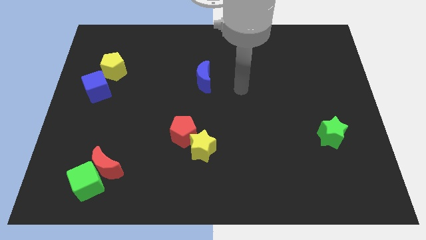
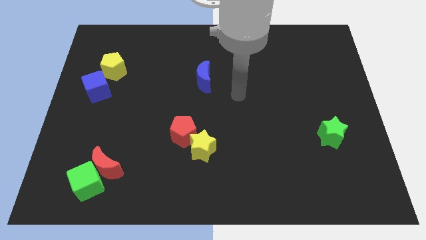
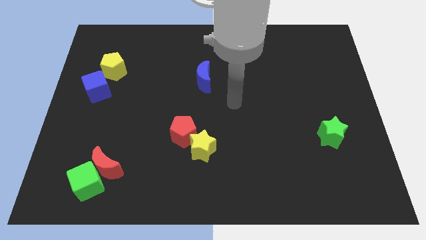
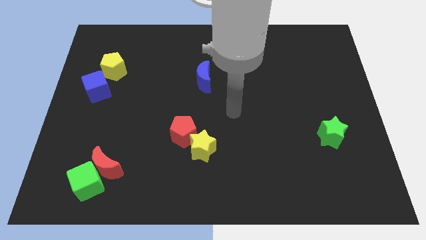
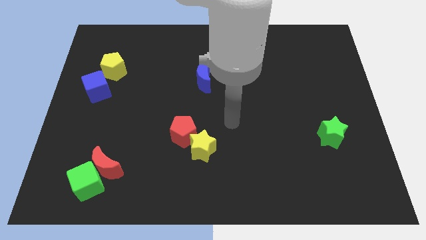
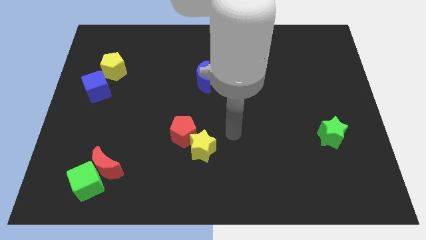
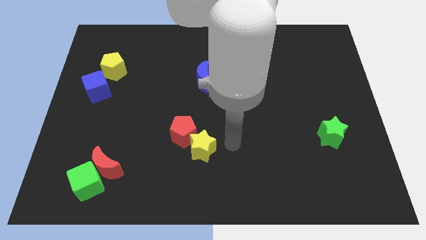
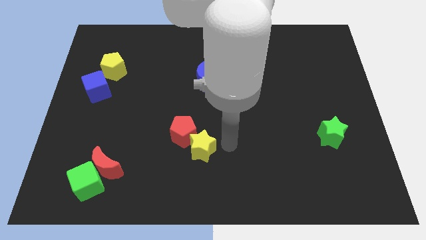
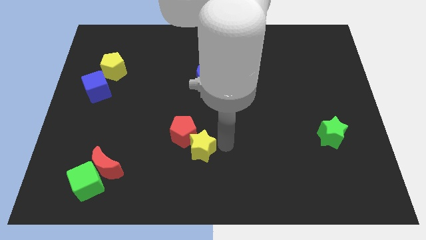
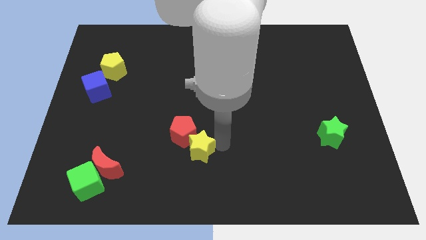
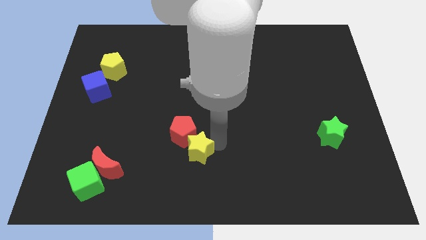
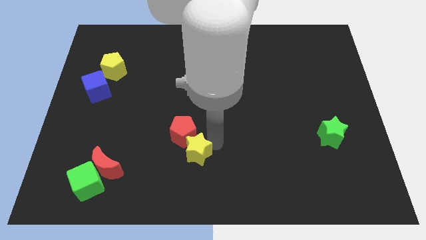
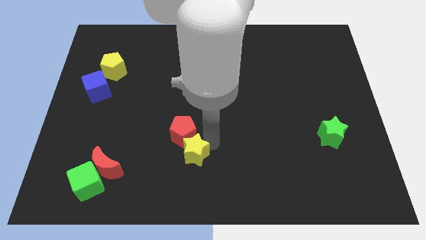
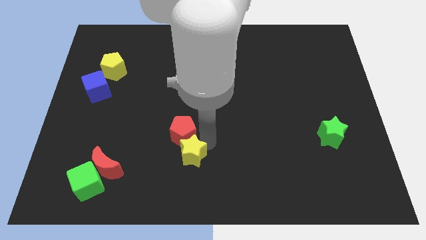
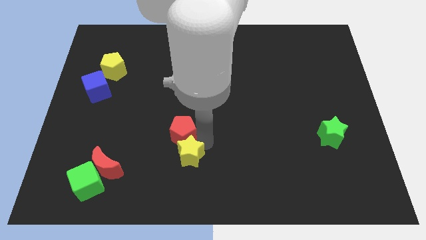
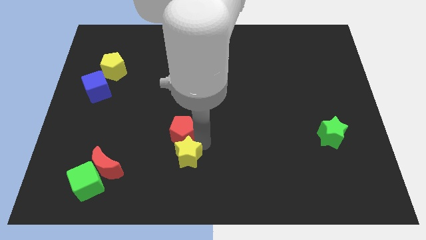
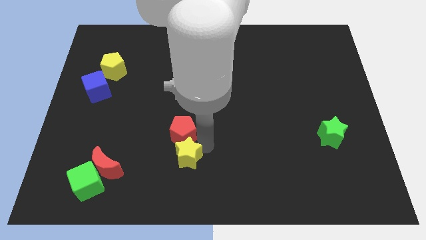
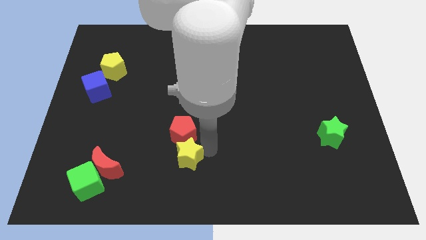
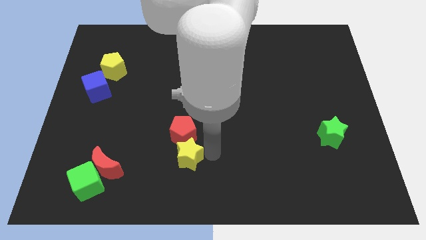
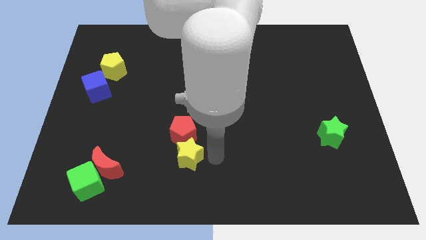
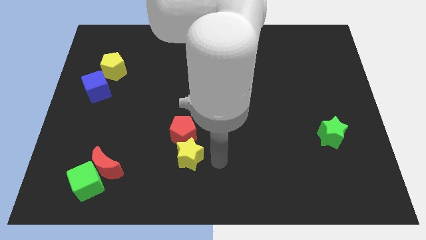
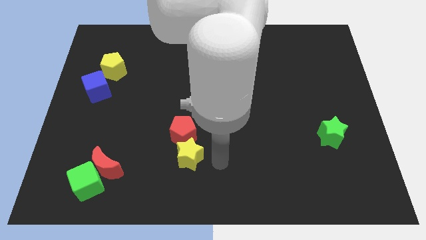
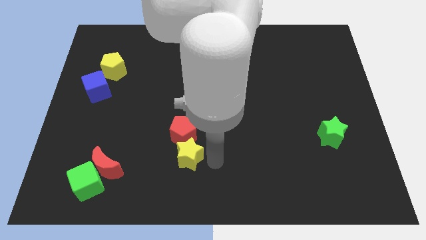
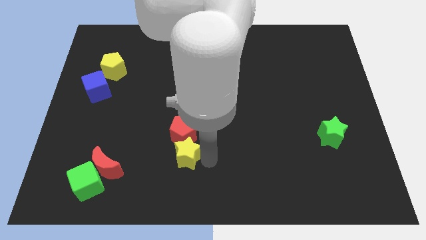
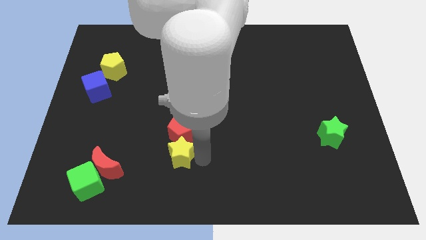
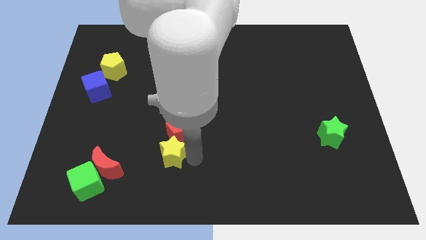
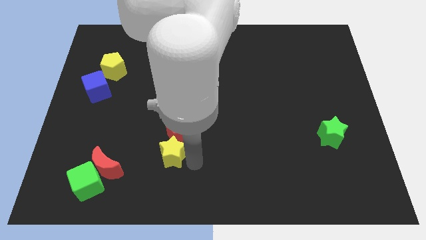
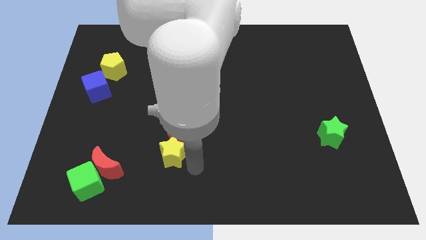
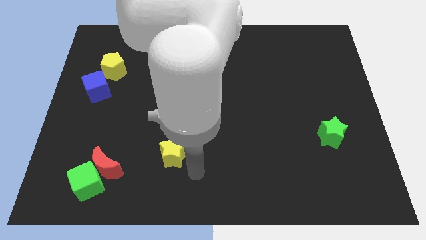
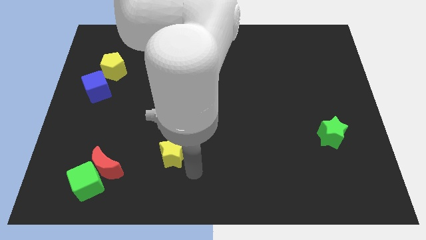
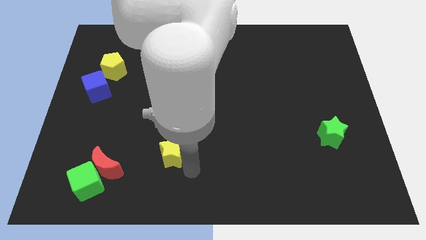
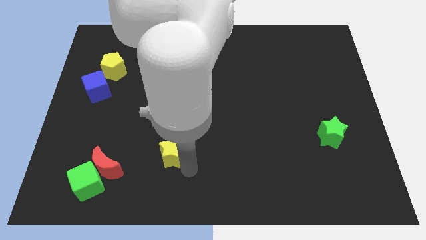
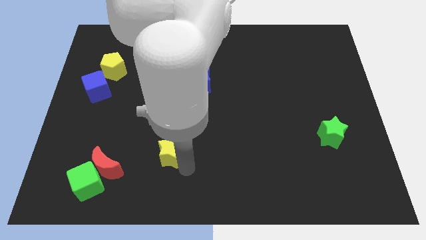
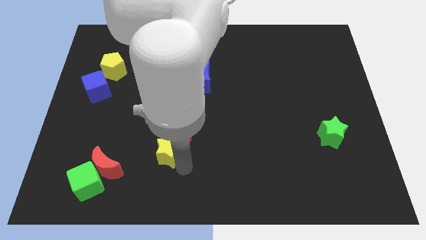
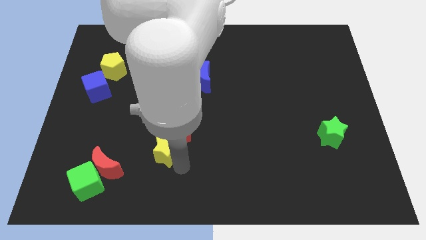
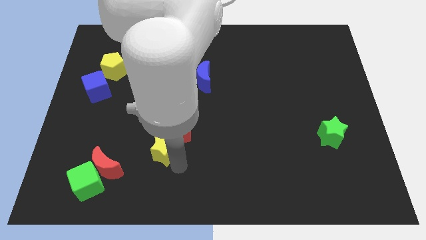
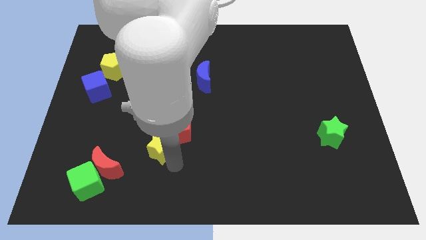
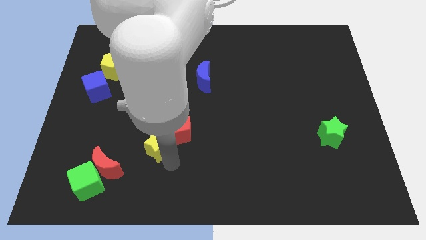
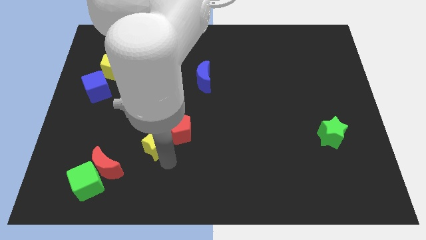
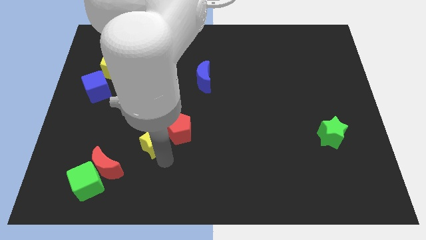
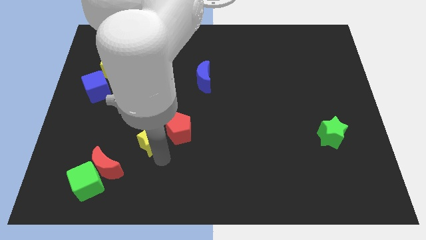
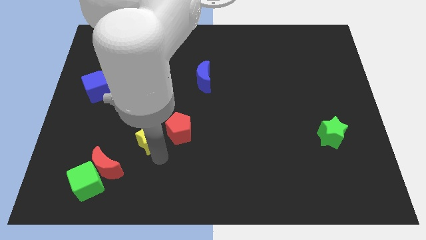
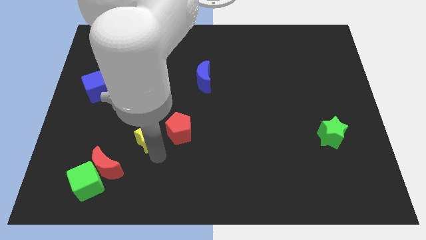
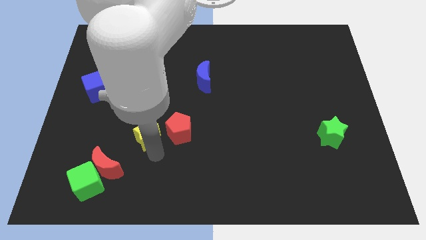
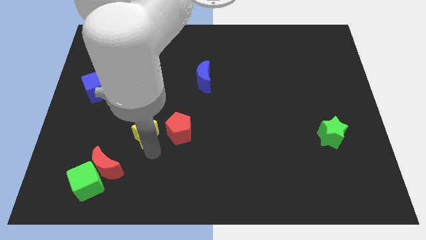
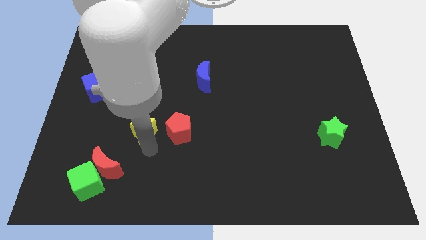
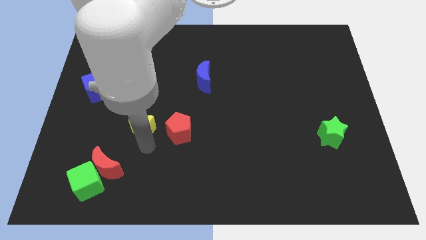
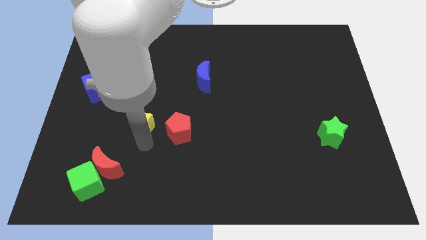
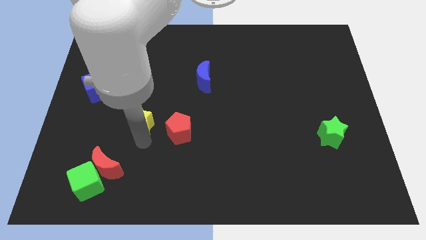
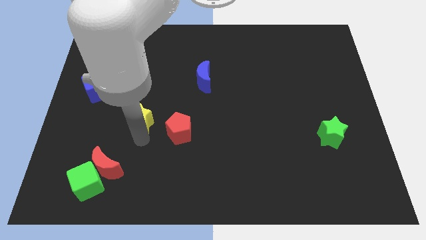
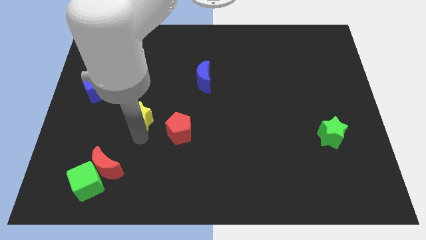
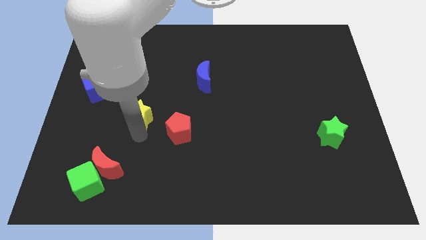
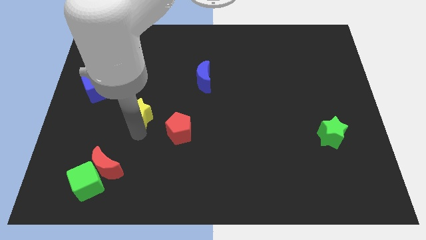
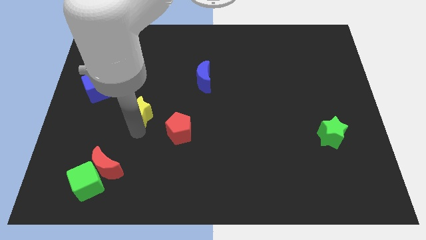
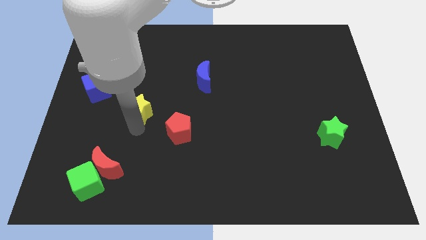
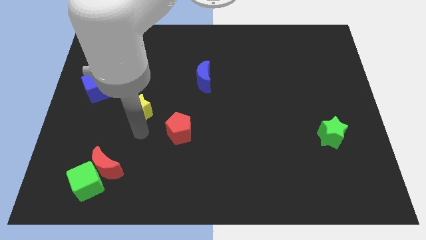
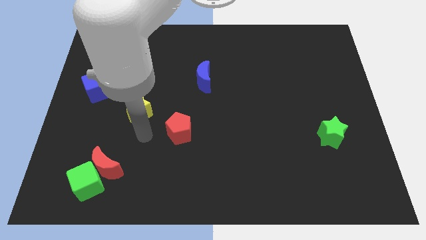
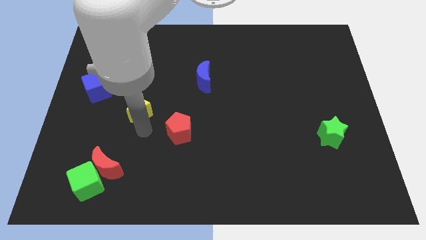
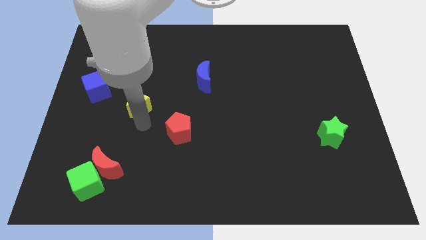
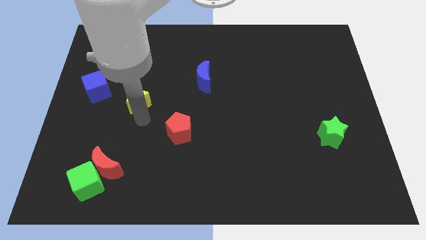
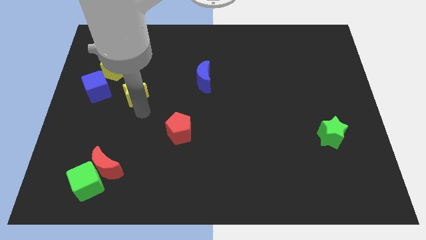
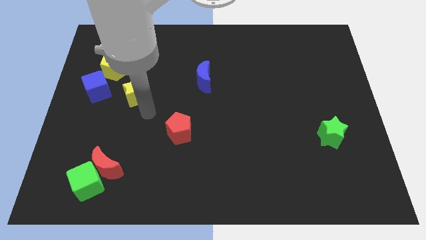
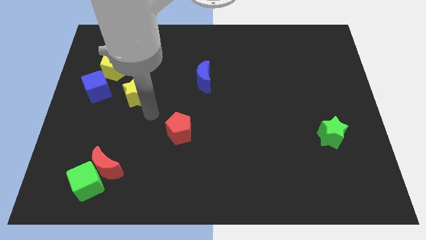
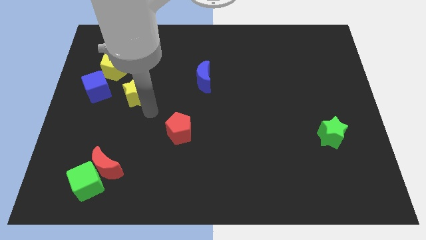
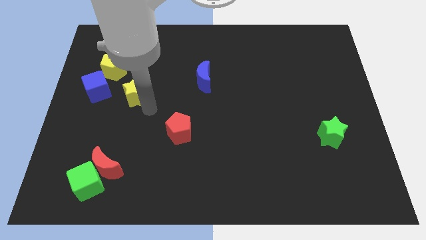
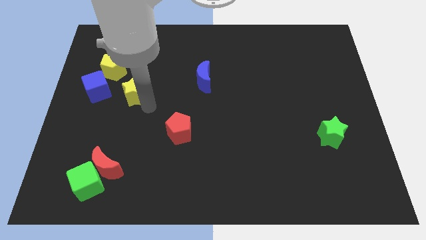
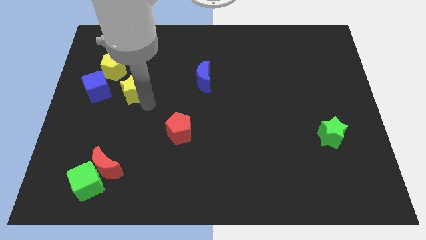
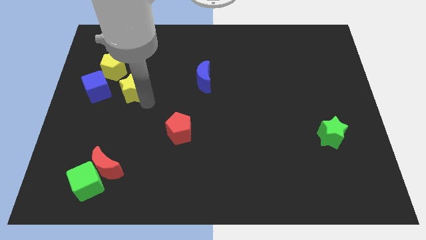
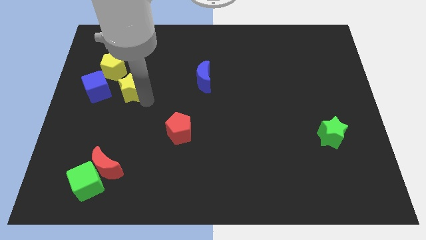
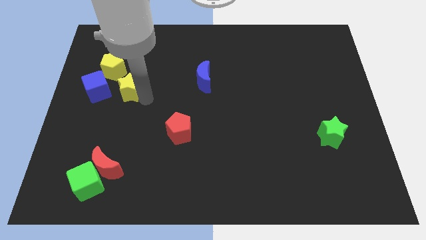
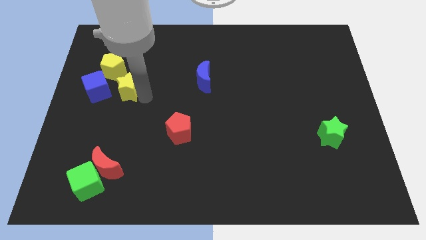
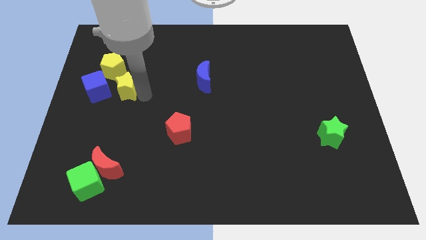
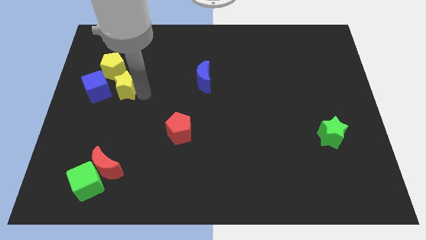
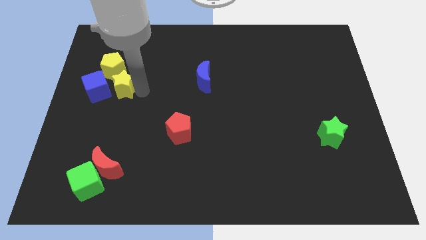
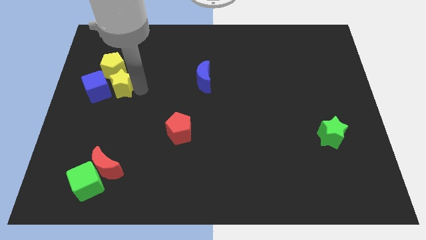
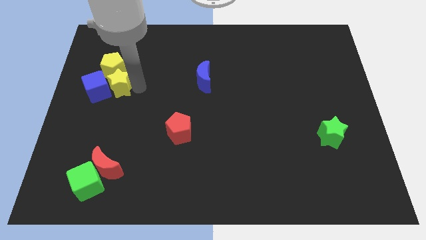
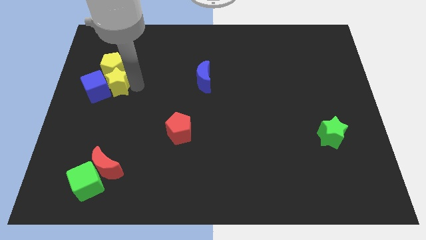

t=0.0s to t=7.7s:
push the yellow star close to the yellow pentagon
